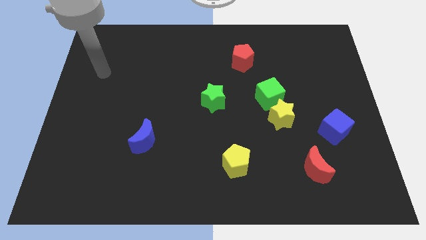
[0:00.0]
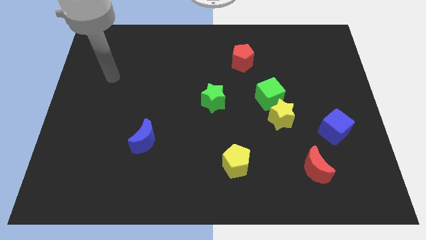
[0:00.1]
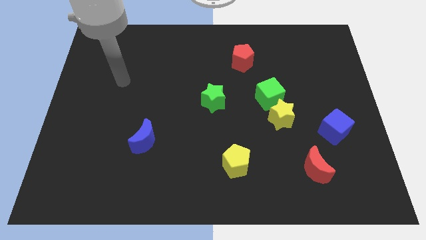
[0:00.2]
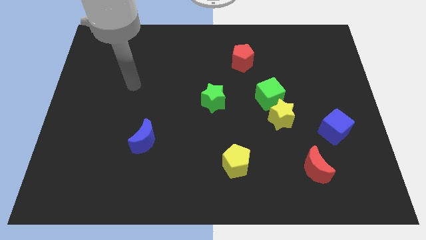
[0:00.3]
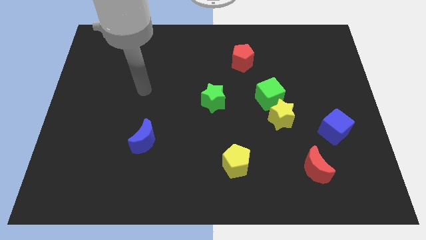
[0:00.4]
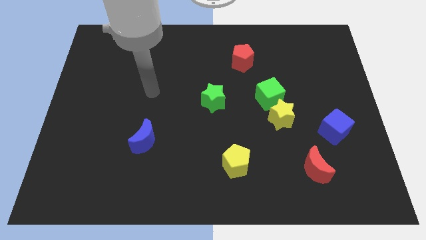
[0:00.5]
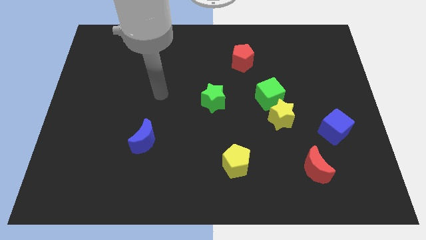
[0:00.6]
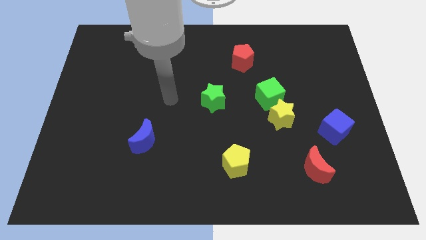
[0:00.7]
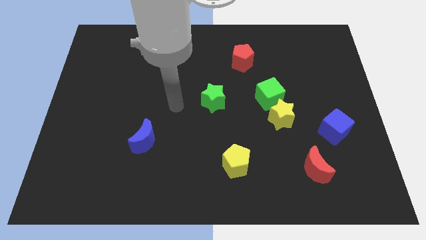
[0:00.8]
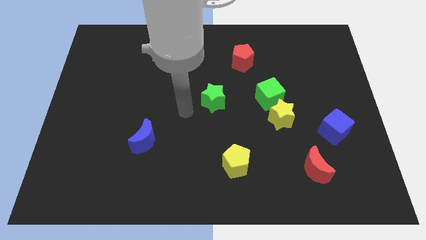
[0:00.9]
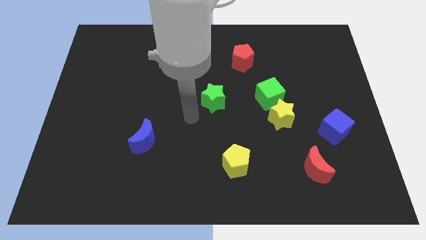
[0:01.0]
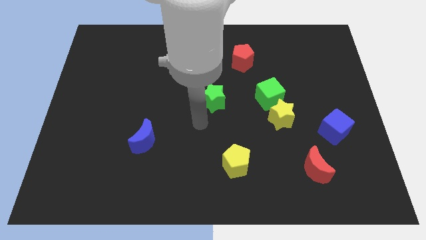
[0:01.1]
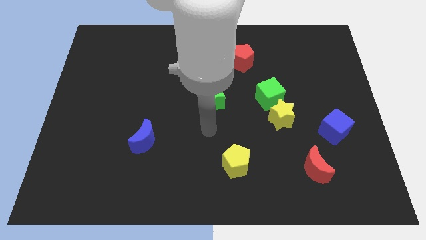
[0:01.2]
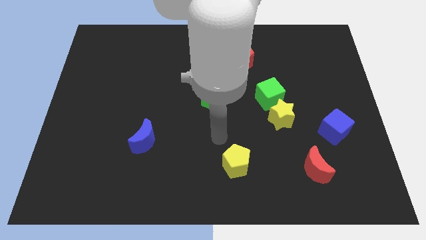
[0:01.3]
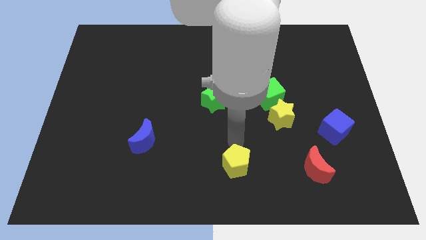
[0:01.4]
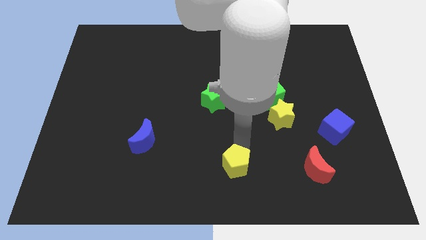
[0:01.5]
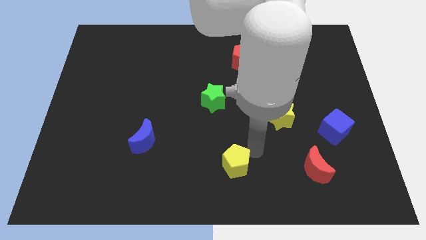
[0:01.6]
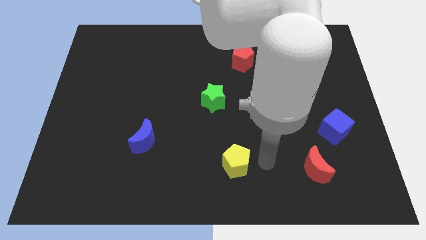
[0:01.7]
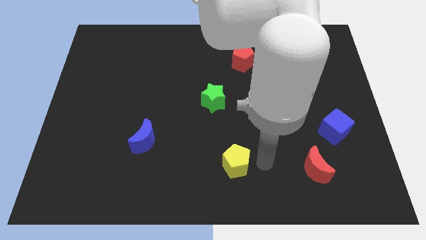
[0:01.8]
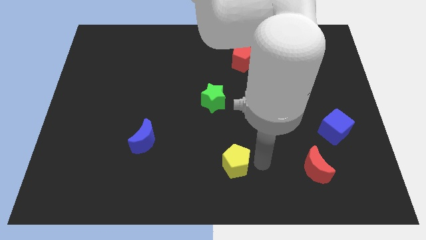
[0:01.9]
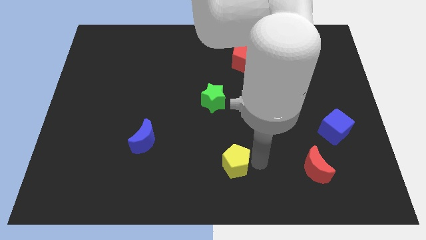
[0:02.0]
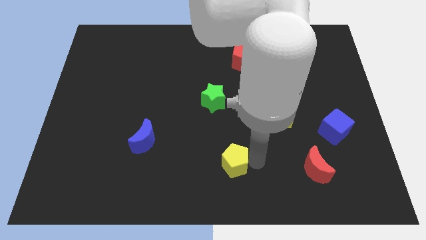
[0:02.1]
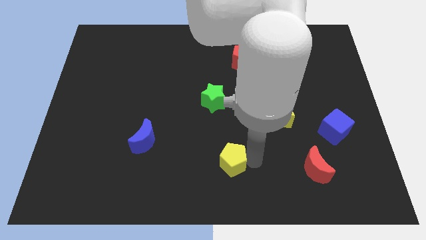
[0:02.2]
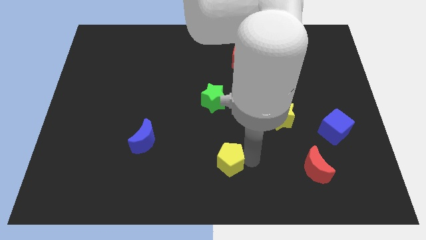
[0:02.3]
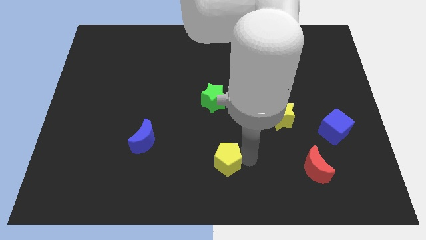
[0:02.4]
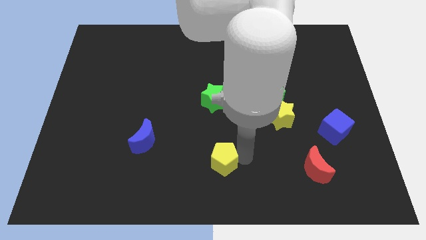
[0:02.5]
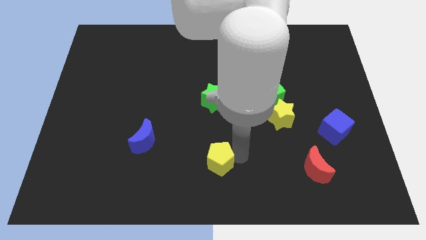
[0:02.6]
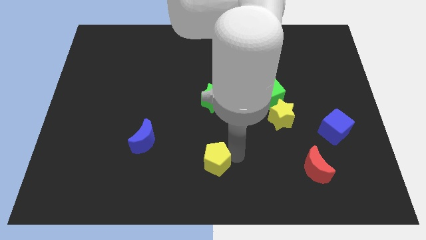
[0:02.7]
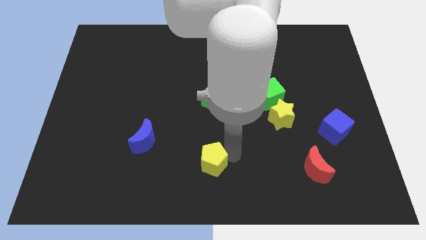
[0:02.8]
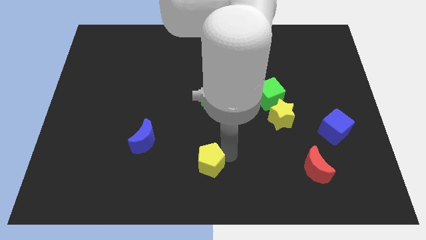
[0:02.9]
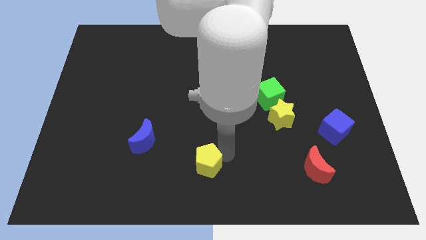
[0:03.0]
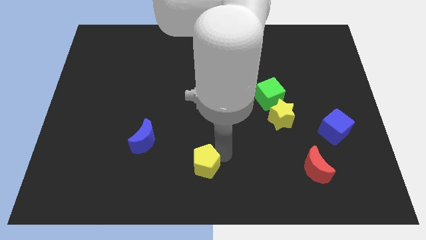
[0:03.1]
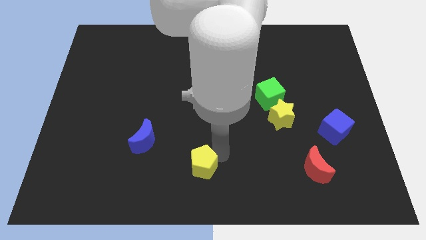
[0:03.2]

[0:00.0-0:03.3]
slide the yellow pentagon slightly left

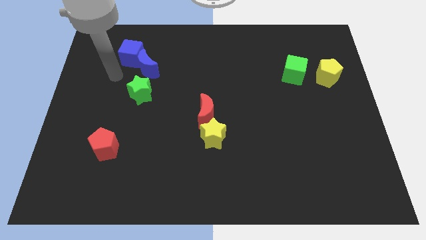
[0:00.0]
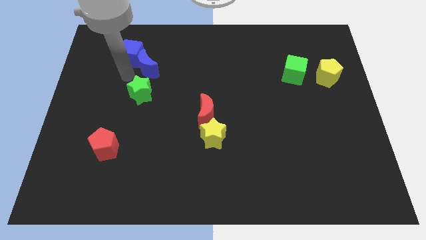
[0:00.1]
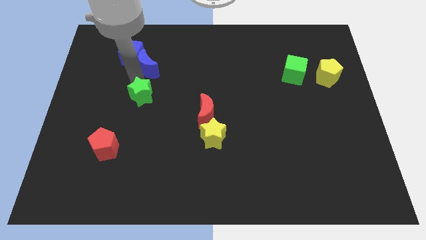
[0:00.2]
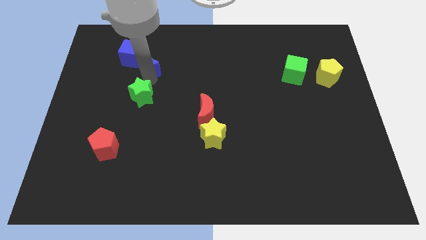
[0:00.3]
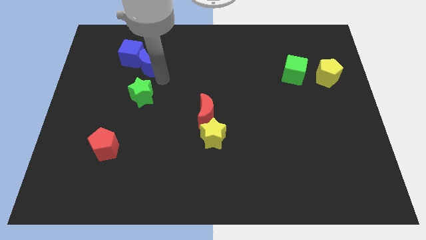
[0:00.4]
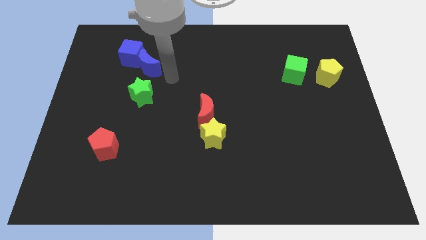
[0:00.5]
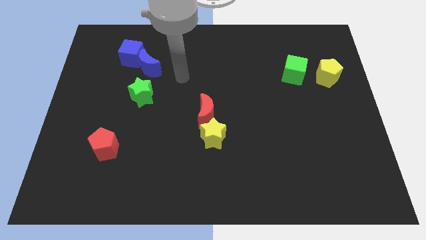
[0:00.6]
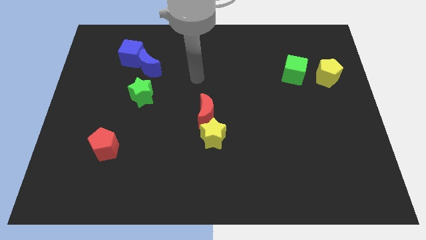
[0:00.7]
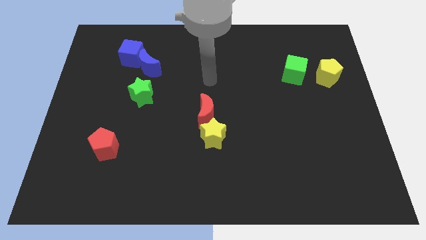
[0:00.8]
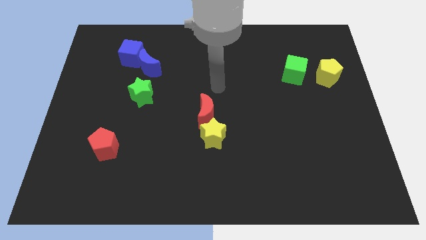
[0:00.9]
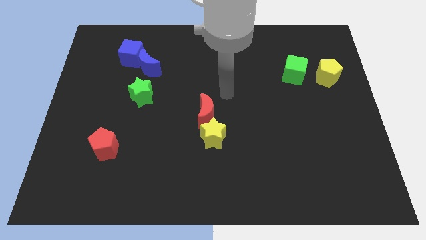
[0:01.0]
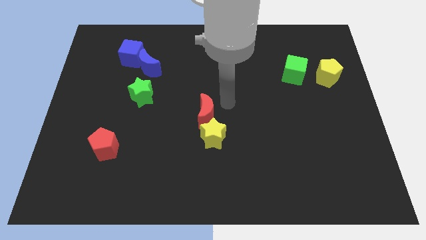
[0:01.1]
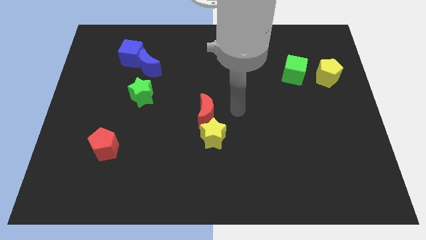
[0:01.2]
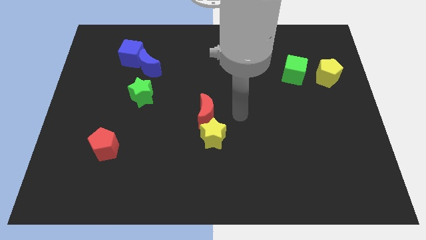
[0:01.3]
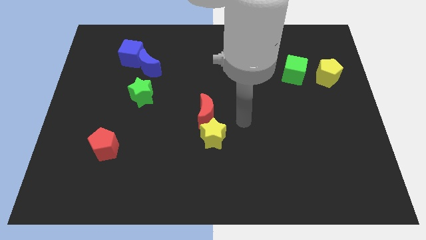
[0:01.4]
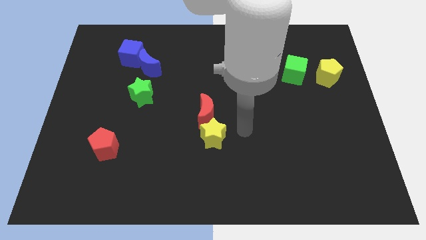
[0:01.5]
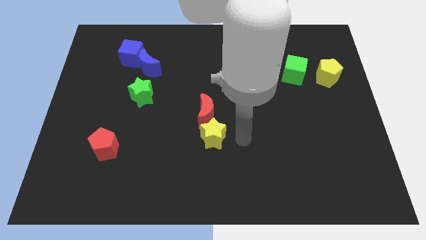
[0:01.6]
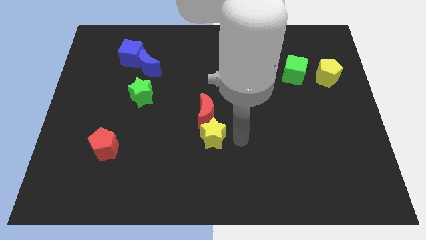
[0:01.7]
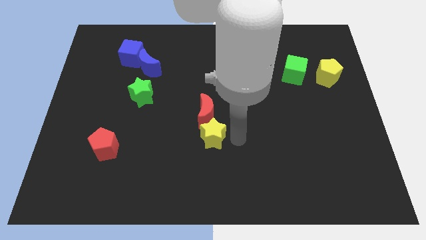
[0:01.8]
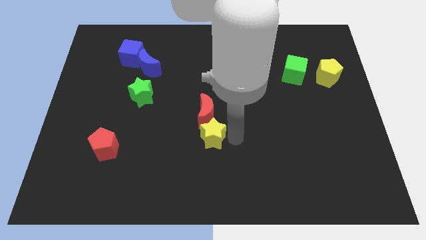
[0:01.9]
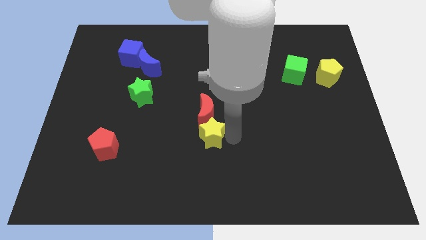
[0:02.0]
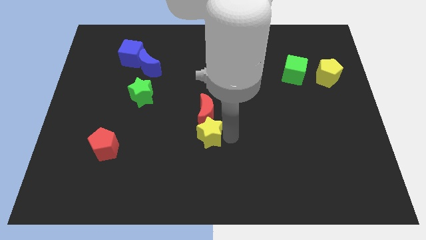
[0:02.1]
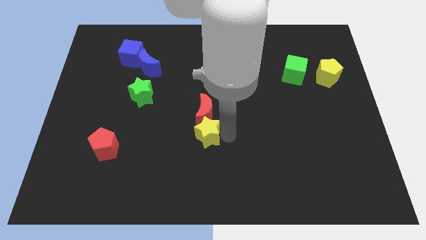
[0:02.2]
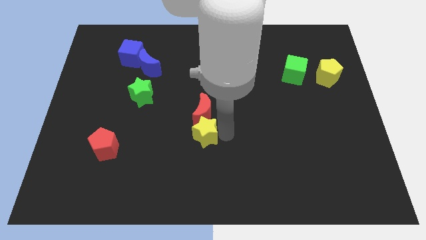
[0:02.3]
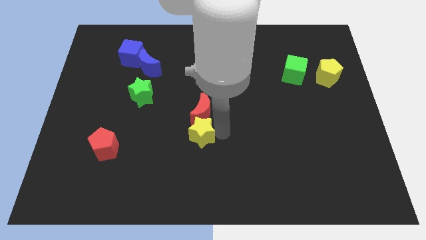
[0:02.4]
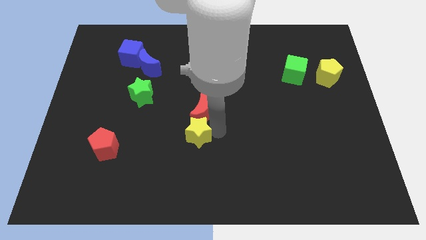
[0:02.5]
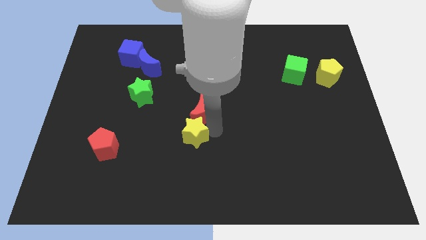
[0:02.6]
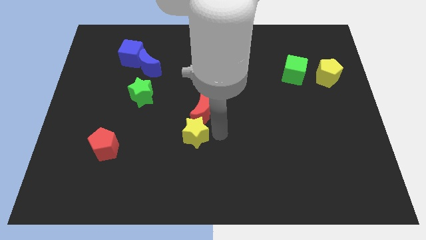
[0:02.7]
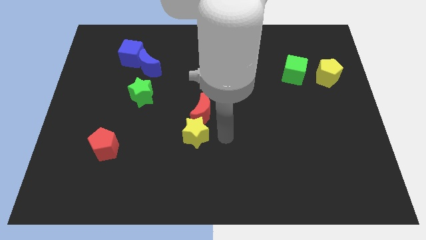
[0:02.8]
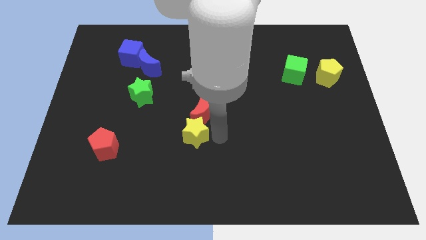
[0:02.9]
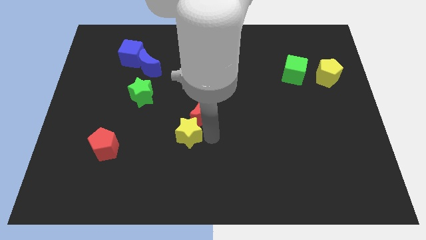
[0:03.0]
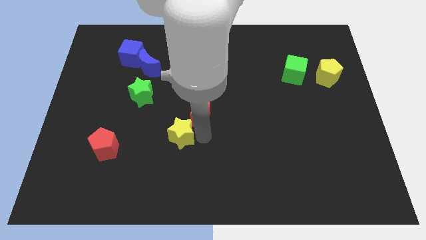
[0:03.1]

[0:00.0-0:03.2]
push the yellow star a little to the left

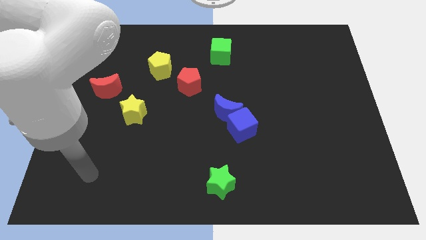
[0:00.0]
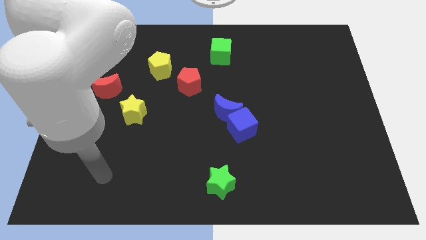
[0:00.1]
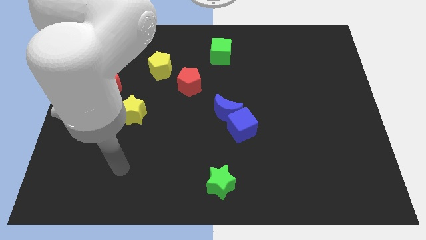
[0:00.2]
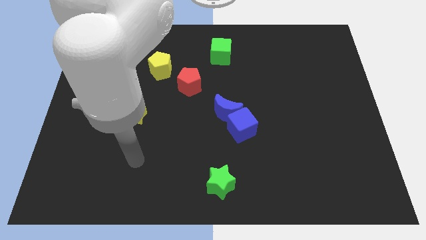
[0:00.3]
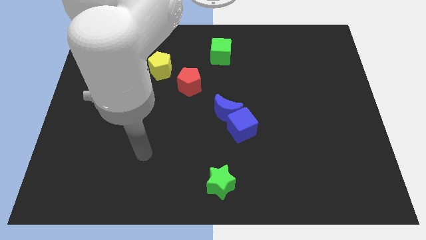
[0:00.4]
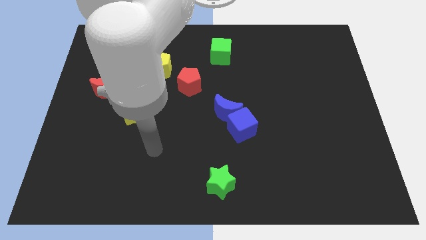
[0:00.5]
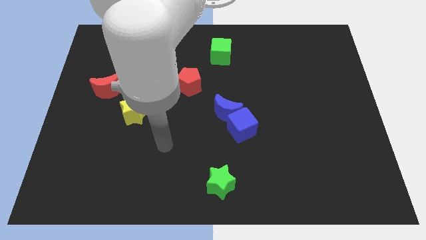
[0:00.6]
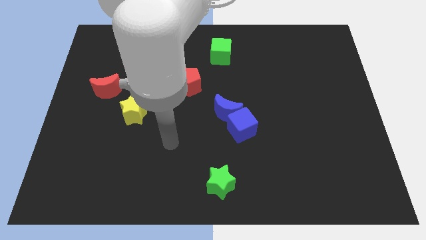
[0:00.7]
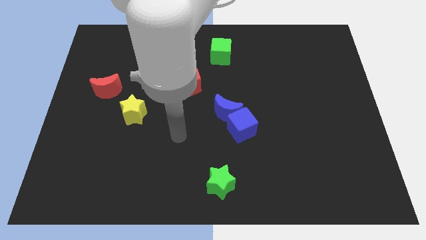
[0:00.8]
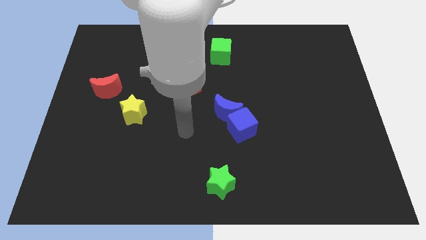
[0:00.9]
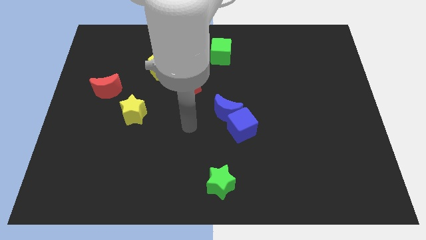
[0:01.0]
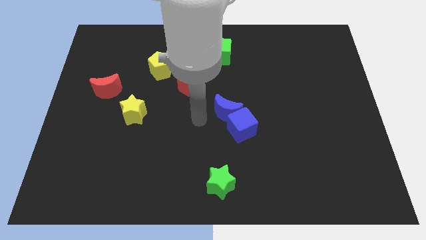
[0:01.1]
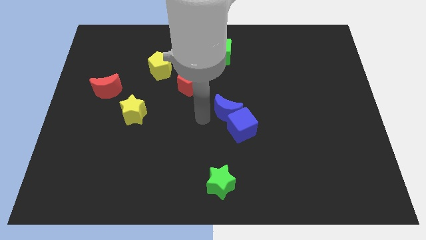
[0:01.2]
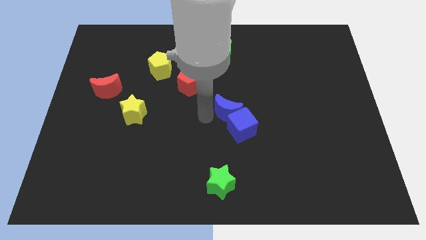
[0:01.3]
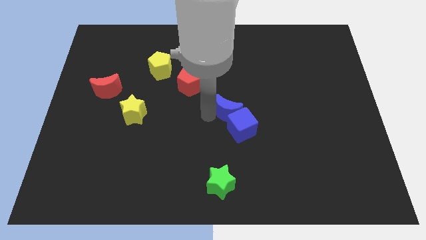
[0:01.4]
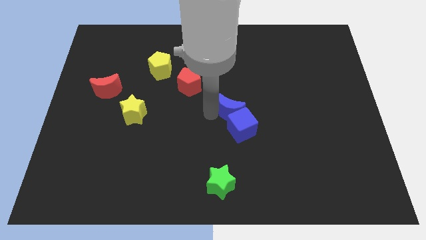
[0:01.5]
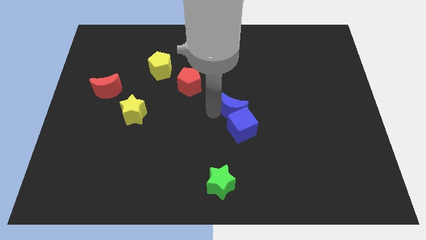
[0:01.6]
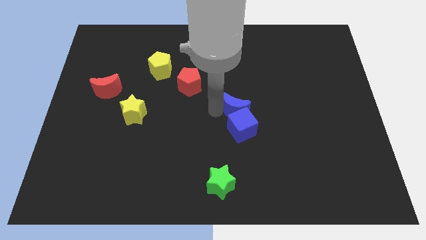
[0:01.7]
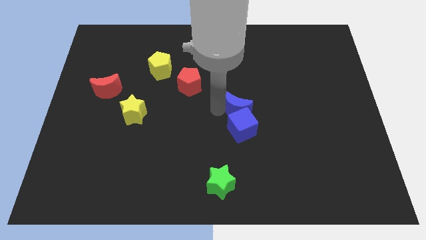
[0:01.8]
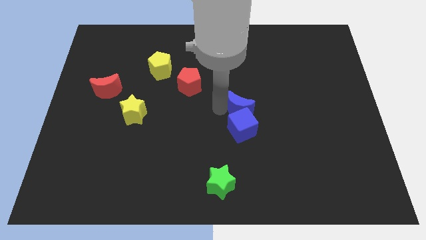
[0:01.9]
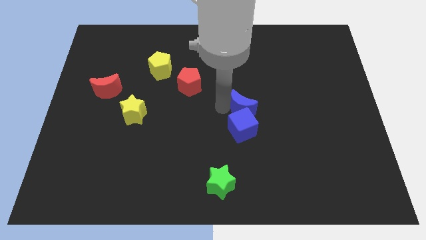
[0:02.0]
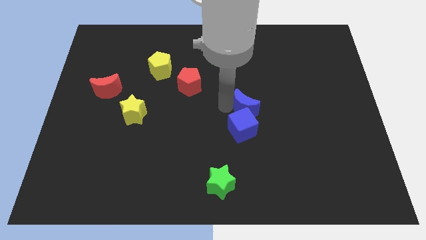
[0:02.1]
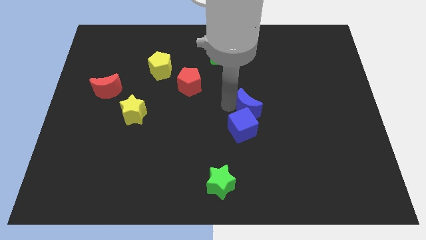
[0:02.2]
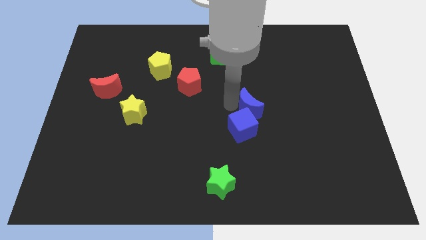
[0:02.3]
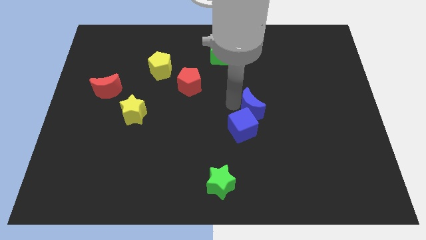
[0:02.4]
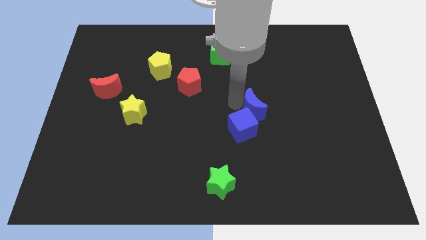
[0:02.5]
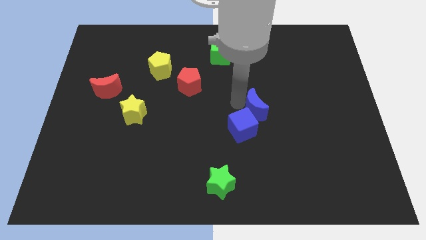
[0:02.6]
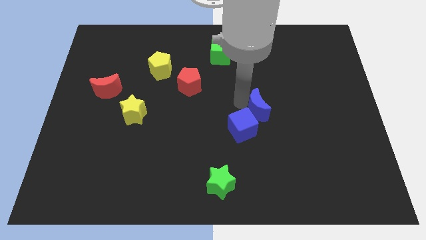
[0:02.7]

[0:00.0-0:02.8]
slide the blue moon right a little bit
